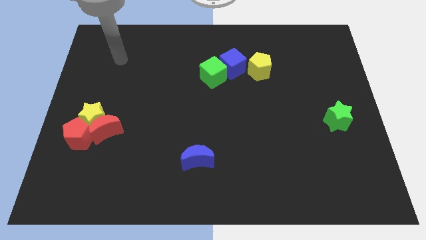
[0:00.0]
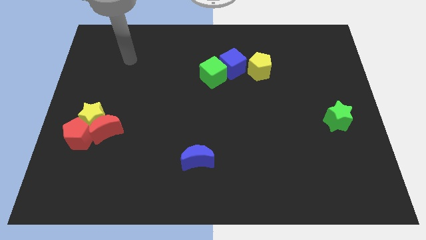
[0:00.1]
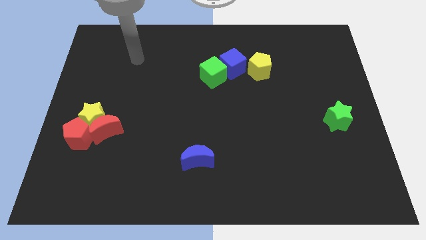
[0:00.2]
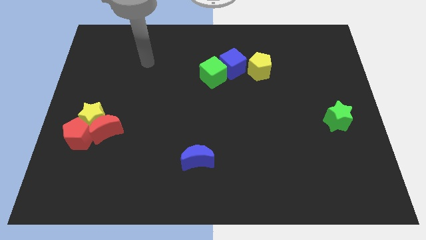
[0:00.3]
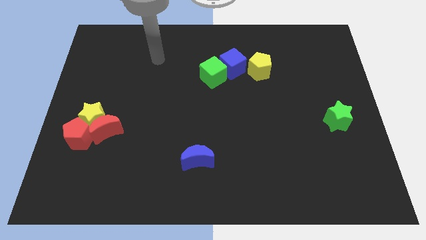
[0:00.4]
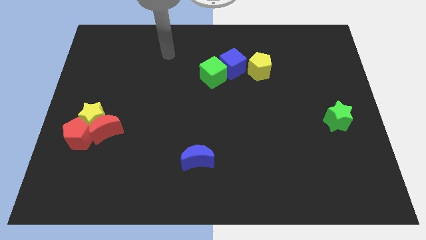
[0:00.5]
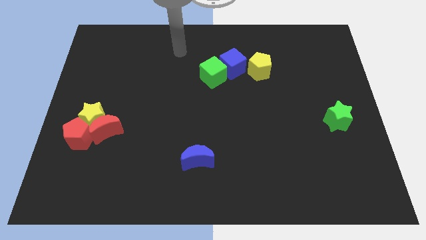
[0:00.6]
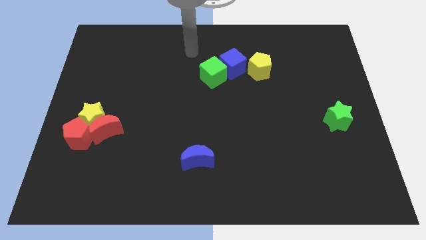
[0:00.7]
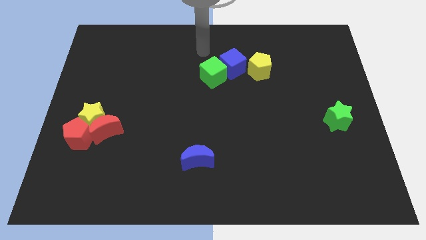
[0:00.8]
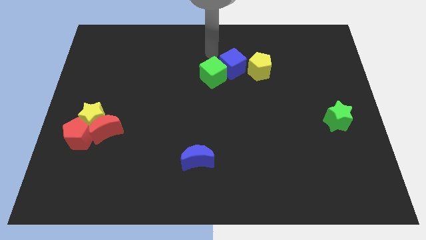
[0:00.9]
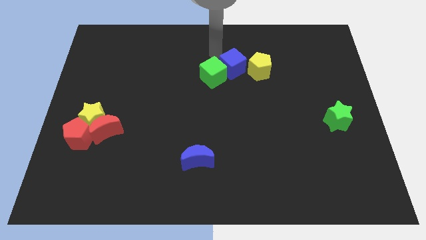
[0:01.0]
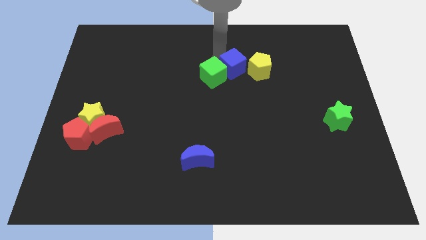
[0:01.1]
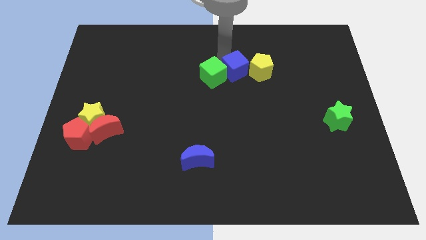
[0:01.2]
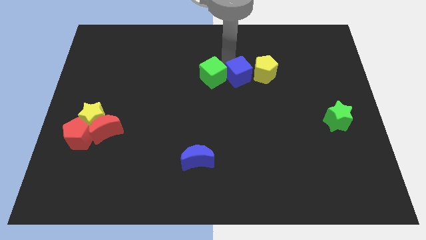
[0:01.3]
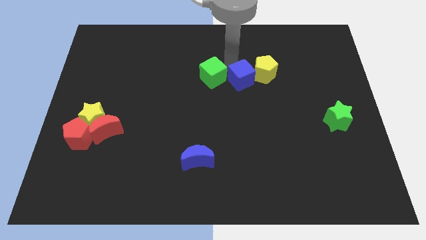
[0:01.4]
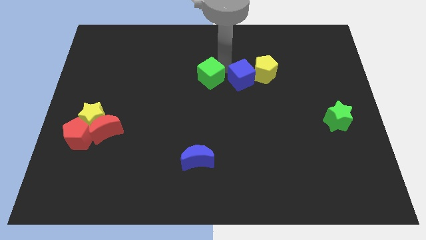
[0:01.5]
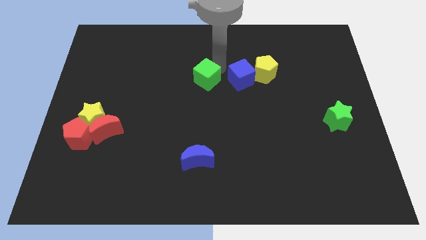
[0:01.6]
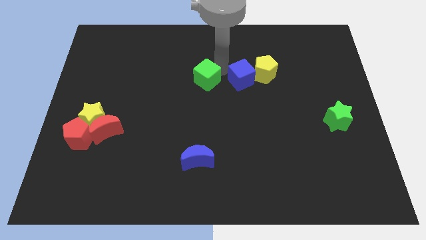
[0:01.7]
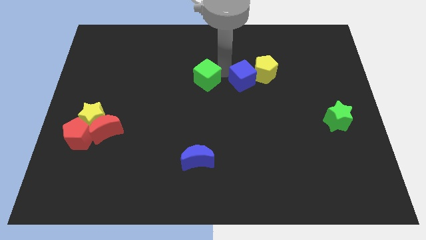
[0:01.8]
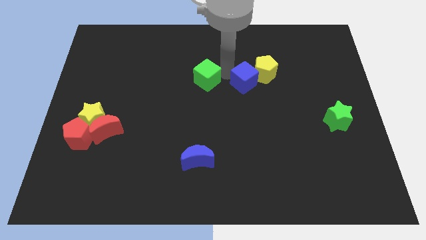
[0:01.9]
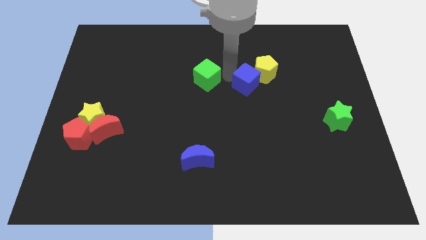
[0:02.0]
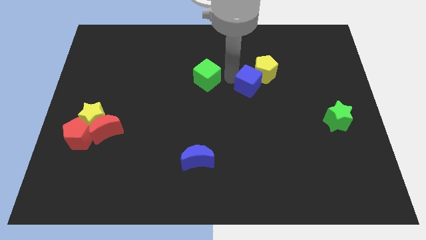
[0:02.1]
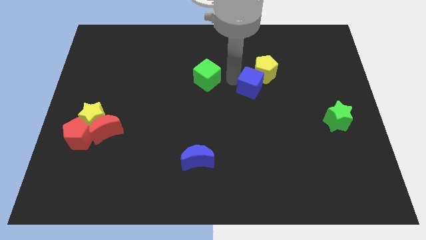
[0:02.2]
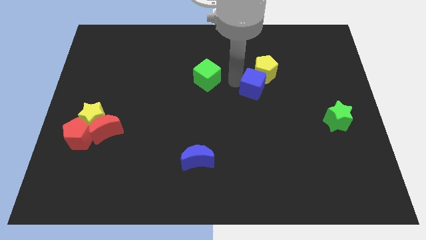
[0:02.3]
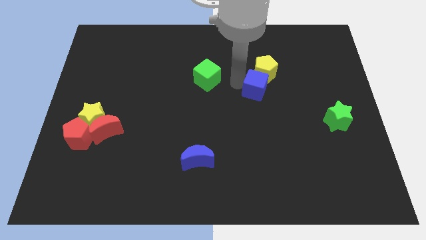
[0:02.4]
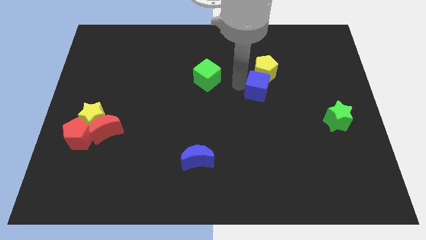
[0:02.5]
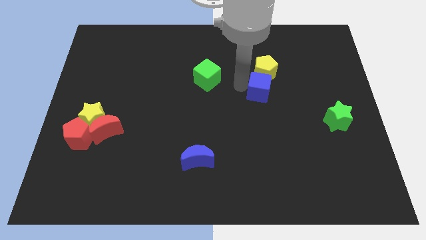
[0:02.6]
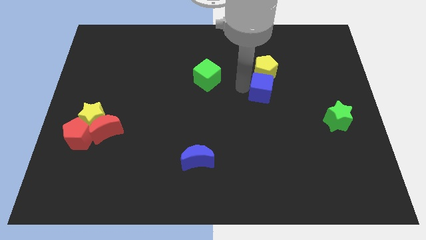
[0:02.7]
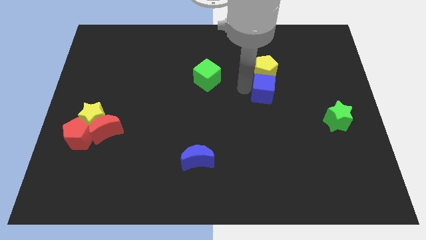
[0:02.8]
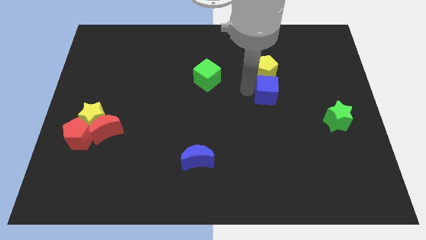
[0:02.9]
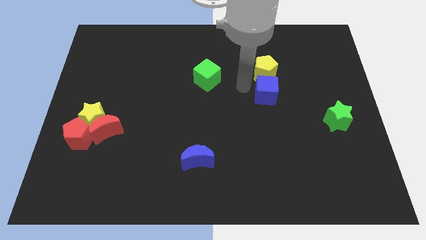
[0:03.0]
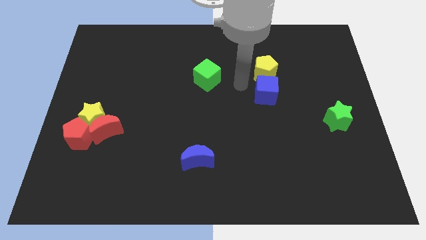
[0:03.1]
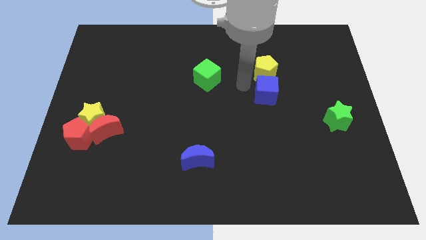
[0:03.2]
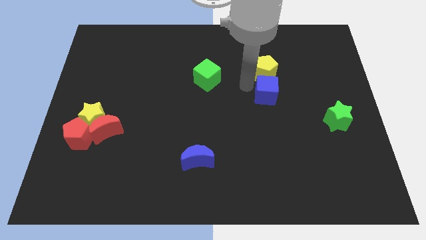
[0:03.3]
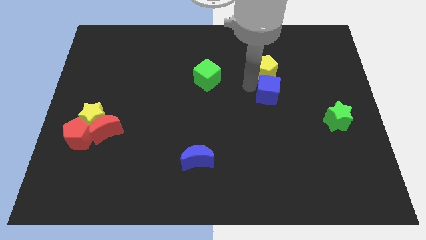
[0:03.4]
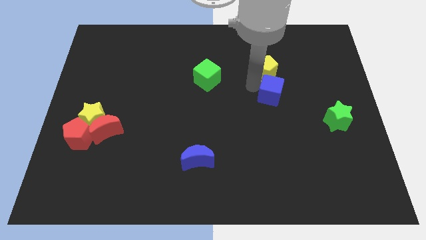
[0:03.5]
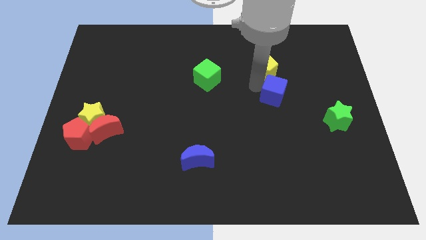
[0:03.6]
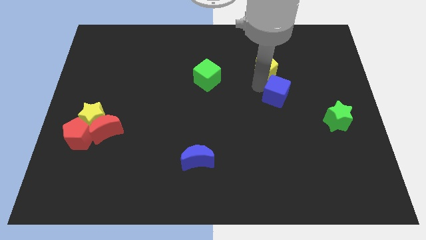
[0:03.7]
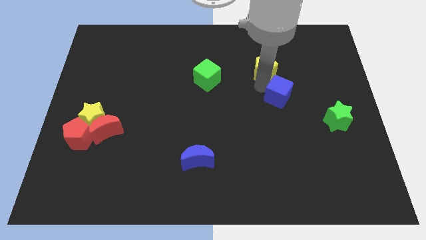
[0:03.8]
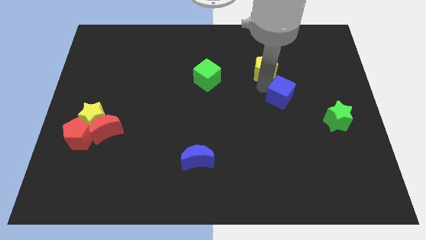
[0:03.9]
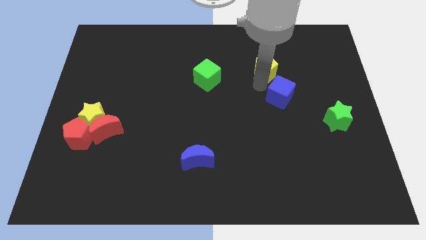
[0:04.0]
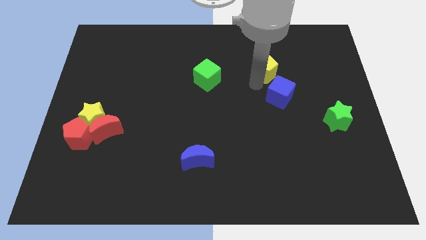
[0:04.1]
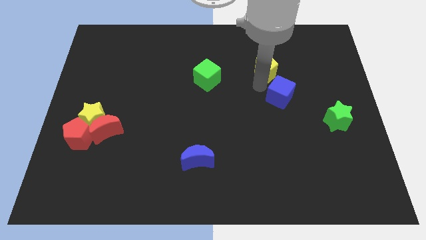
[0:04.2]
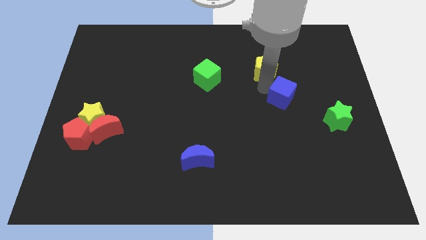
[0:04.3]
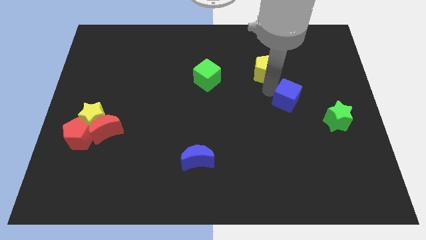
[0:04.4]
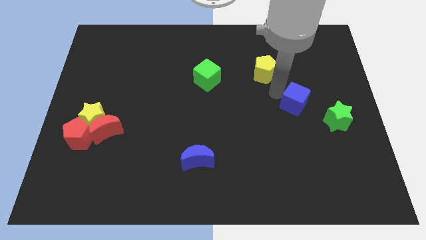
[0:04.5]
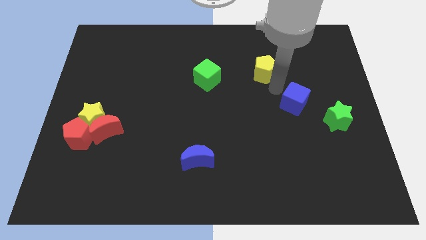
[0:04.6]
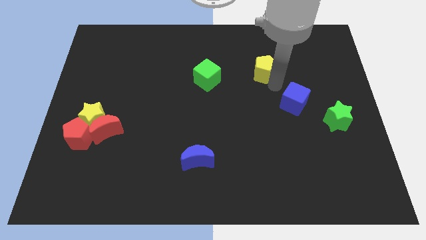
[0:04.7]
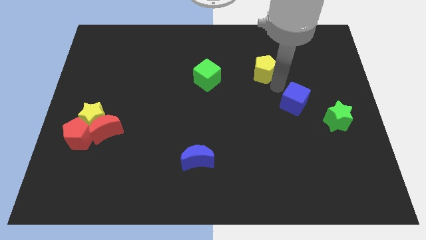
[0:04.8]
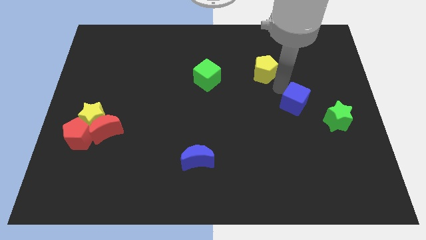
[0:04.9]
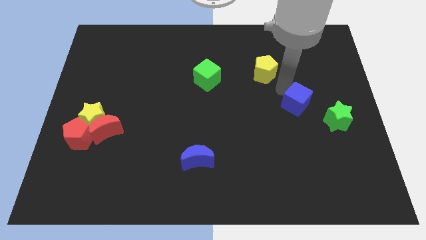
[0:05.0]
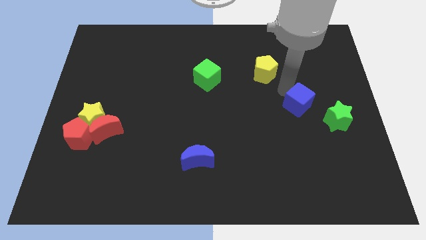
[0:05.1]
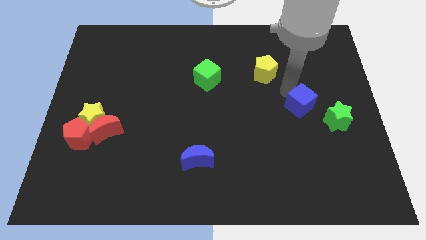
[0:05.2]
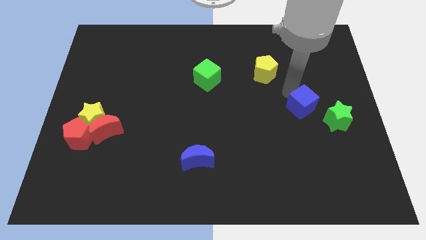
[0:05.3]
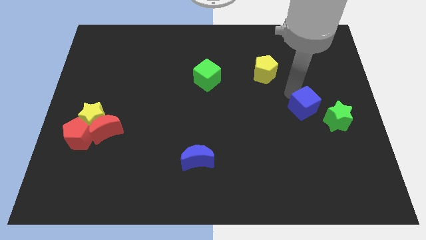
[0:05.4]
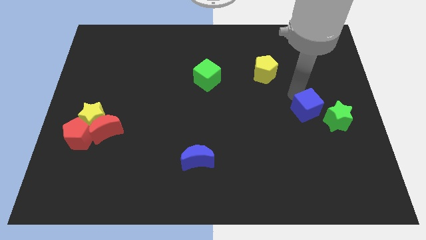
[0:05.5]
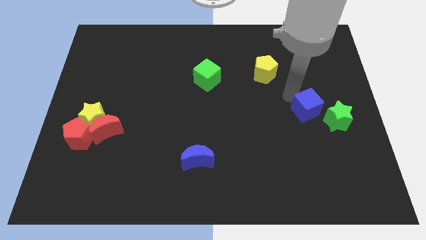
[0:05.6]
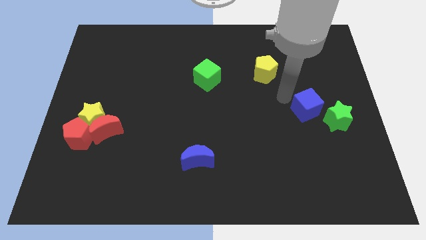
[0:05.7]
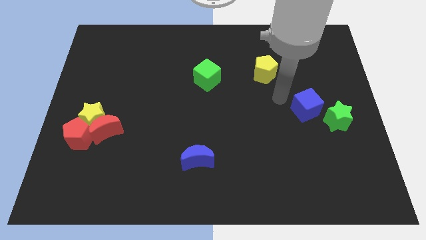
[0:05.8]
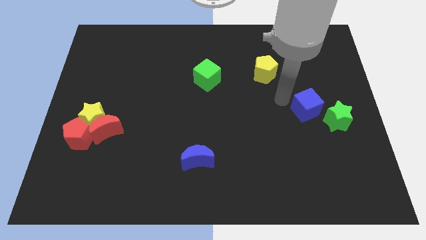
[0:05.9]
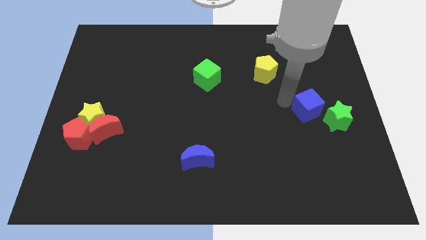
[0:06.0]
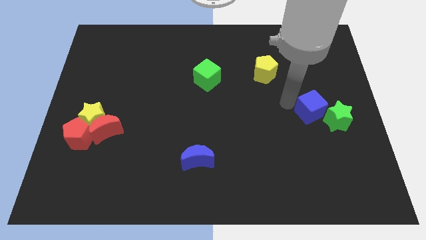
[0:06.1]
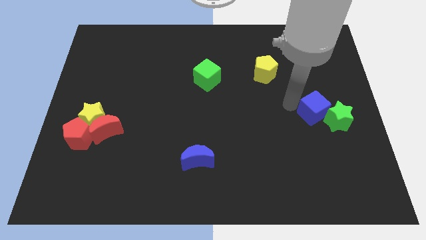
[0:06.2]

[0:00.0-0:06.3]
push the blue cube next to the green star

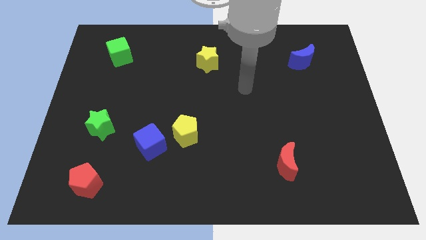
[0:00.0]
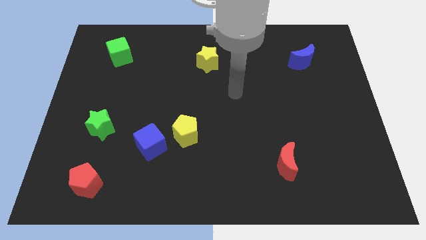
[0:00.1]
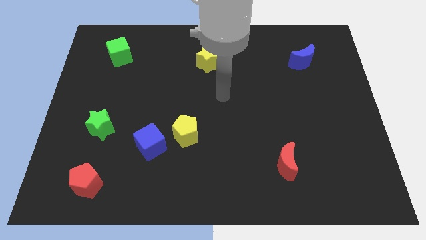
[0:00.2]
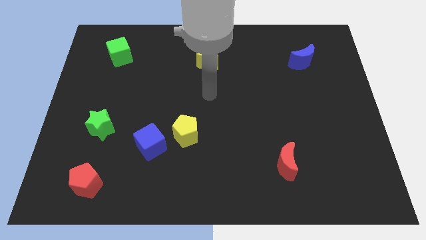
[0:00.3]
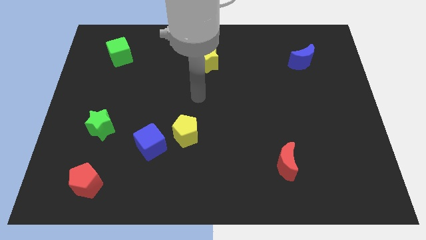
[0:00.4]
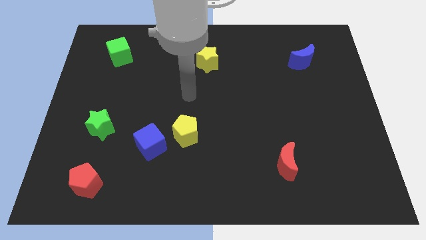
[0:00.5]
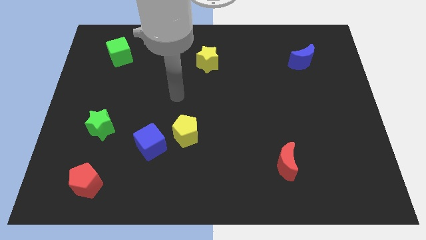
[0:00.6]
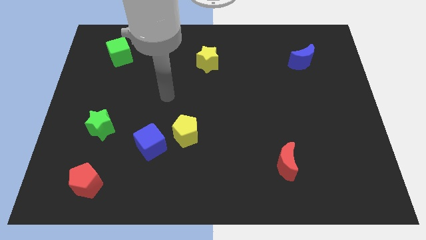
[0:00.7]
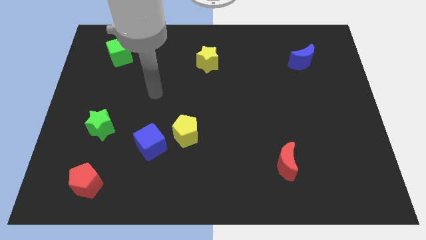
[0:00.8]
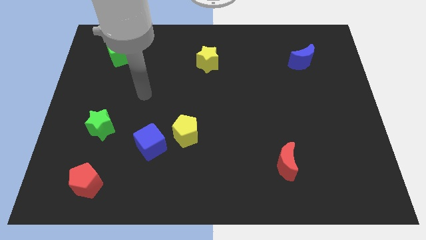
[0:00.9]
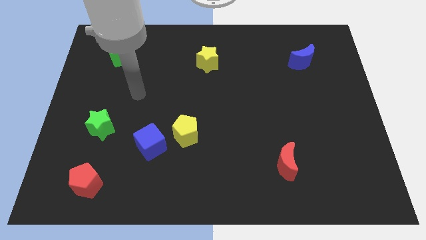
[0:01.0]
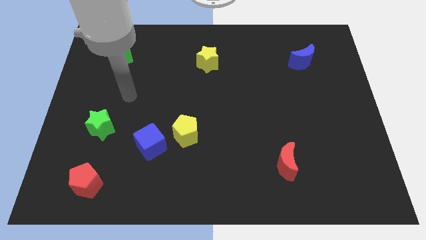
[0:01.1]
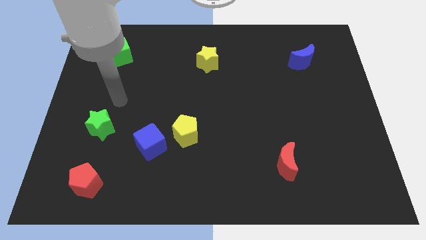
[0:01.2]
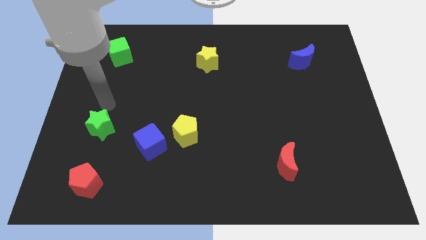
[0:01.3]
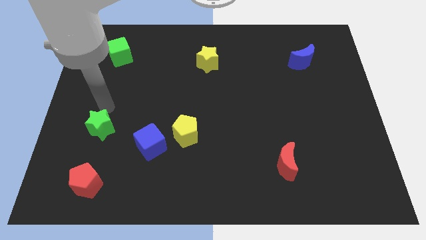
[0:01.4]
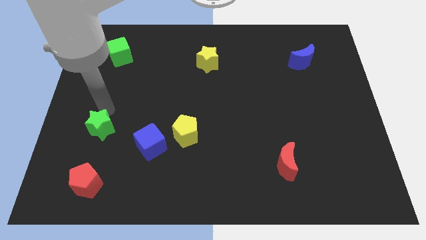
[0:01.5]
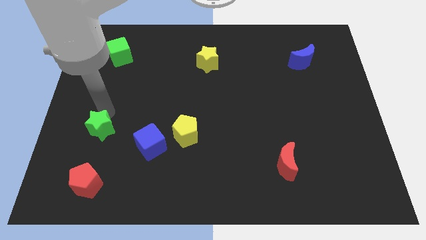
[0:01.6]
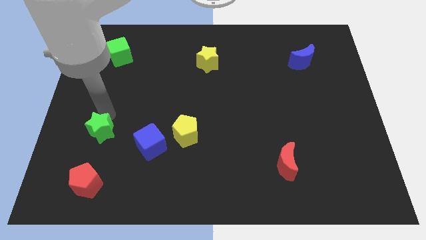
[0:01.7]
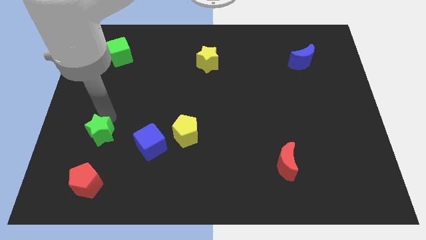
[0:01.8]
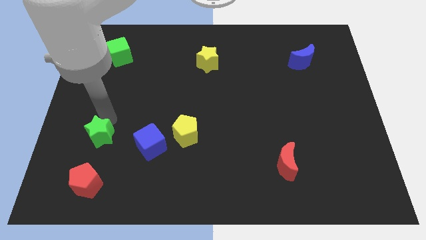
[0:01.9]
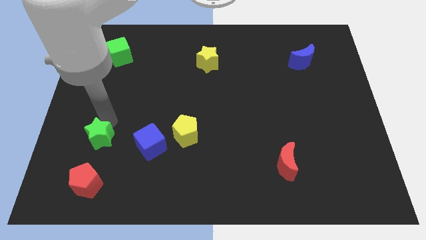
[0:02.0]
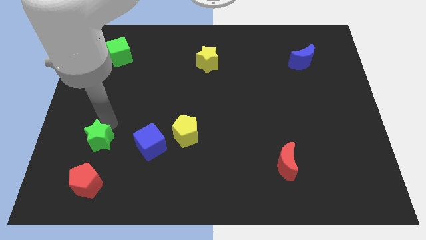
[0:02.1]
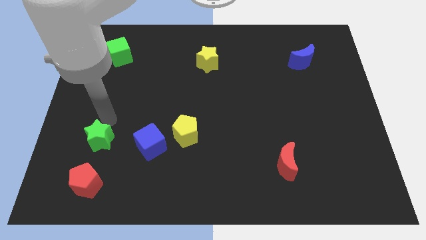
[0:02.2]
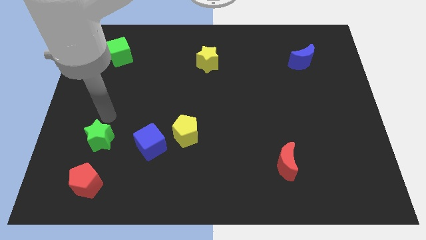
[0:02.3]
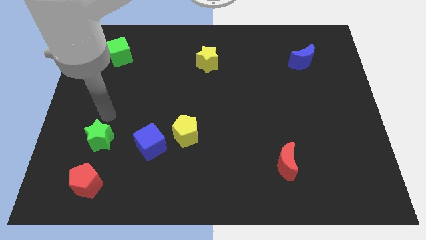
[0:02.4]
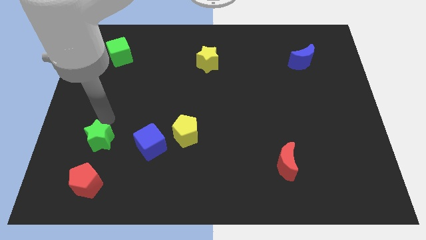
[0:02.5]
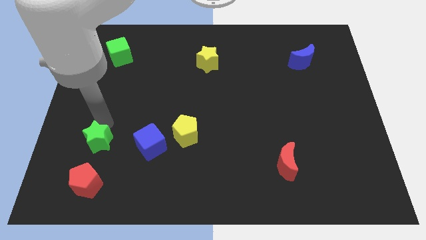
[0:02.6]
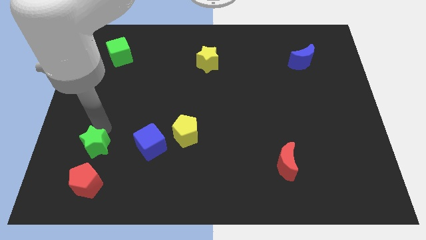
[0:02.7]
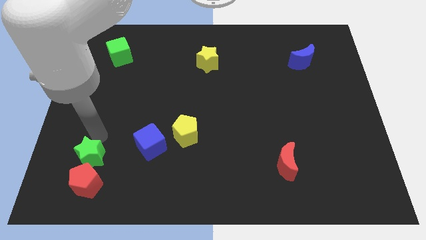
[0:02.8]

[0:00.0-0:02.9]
slide the green star next to the red pentagon
